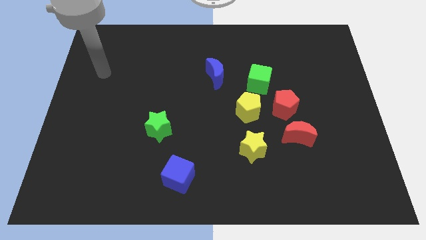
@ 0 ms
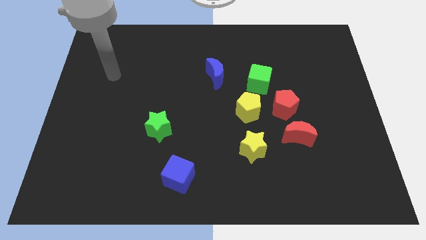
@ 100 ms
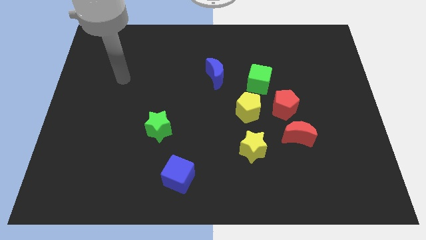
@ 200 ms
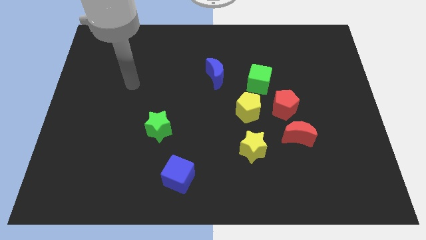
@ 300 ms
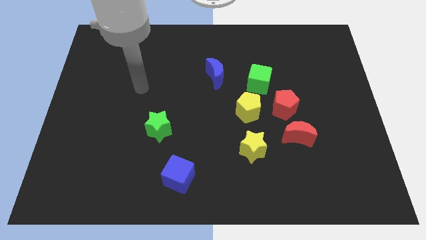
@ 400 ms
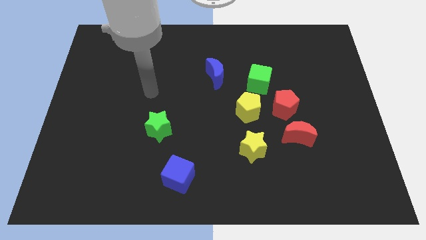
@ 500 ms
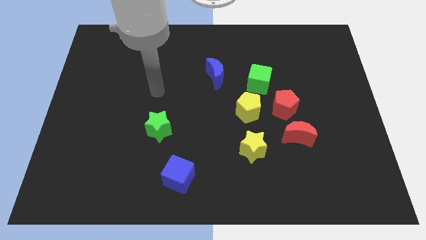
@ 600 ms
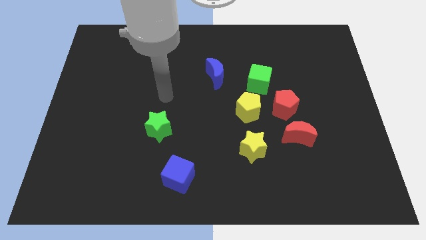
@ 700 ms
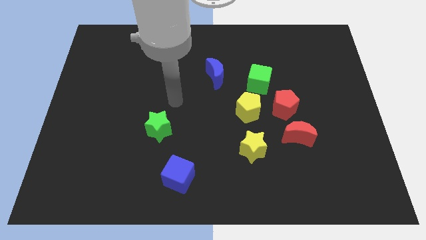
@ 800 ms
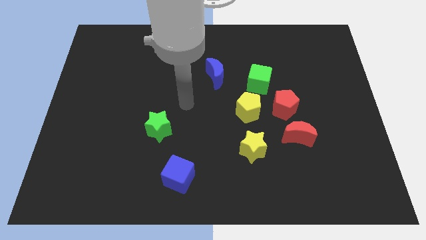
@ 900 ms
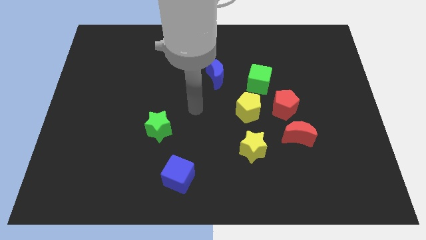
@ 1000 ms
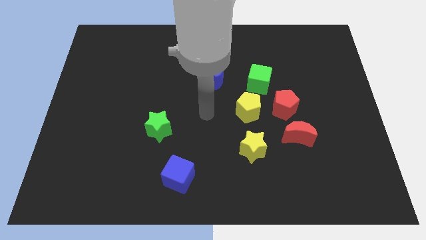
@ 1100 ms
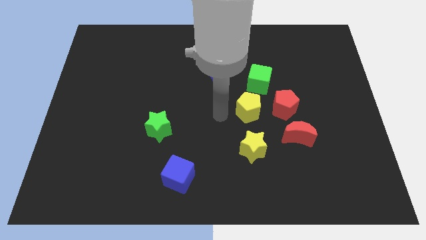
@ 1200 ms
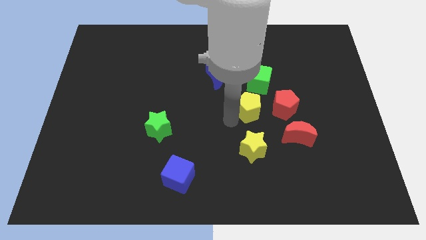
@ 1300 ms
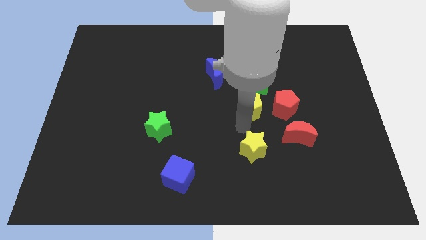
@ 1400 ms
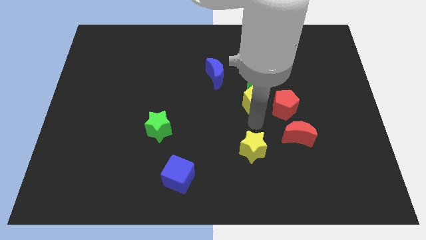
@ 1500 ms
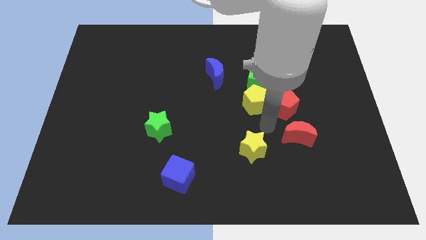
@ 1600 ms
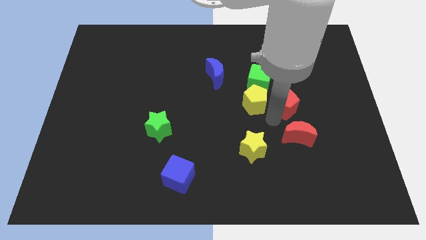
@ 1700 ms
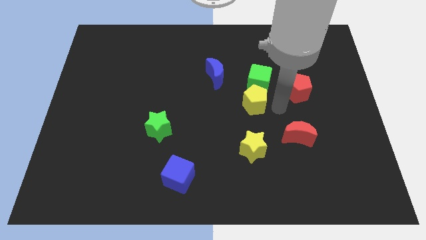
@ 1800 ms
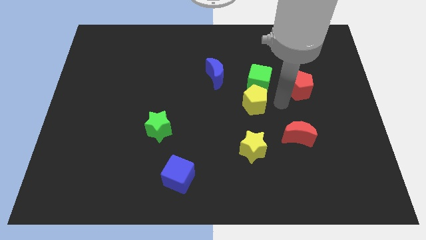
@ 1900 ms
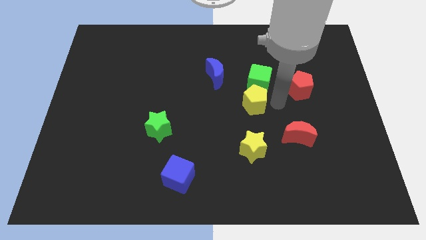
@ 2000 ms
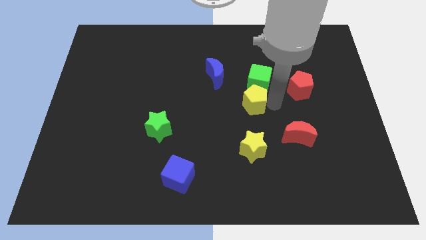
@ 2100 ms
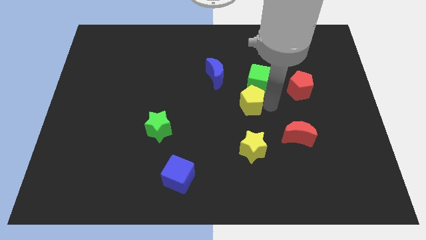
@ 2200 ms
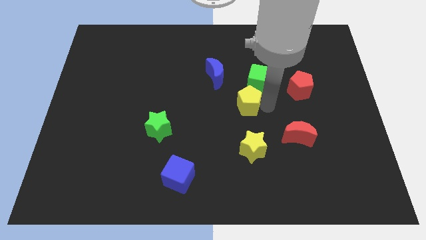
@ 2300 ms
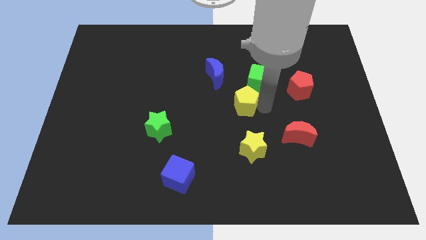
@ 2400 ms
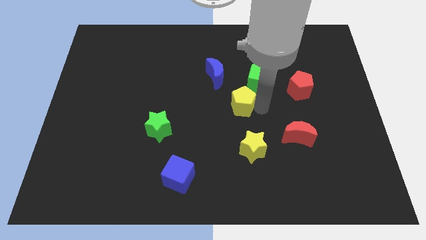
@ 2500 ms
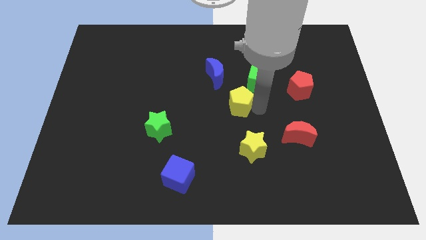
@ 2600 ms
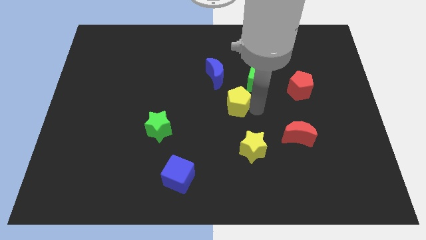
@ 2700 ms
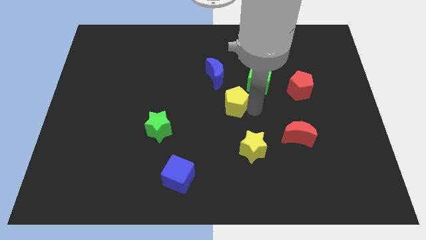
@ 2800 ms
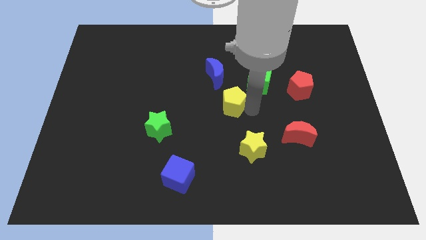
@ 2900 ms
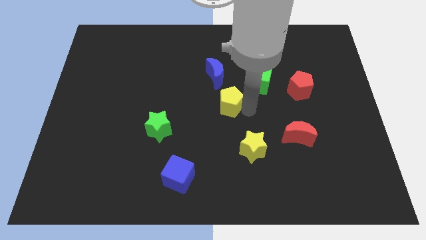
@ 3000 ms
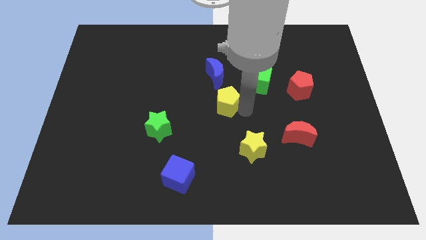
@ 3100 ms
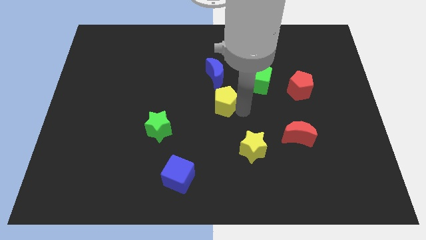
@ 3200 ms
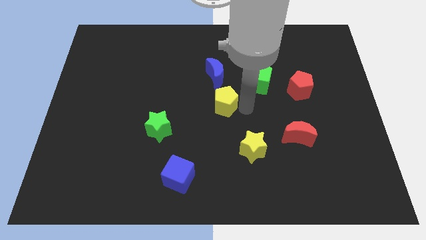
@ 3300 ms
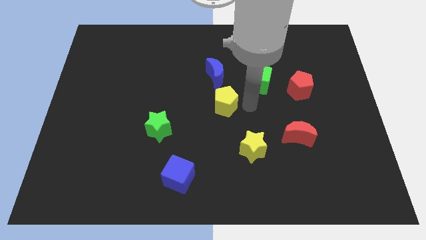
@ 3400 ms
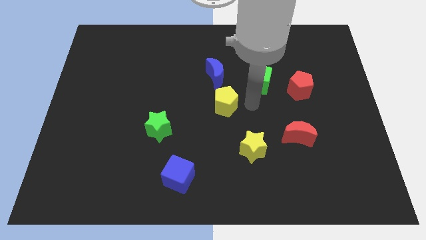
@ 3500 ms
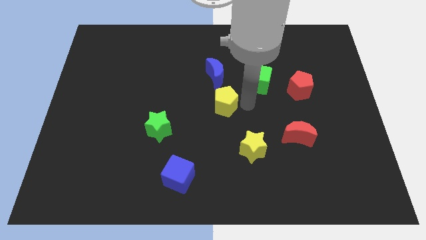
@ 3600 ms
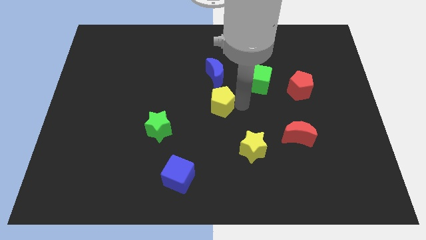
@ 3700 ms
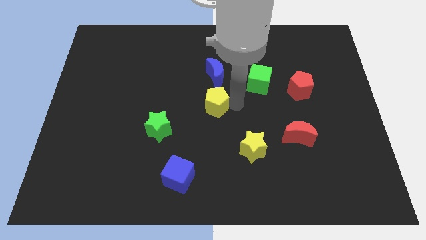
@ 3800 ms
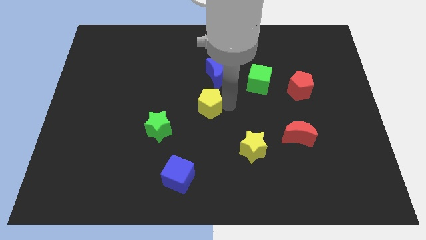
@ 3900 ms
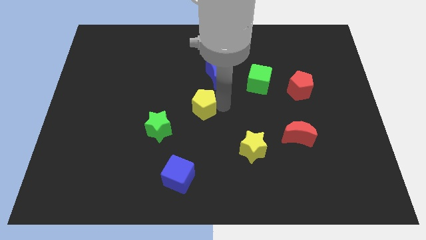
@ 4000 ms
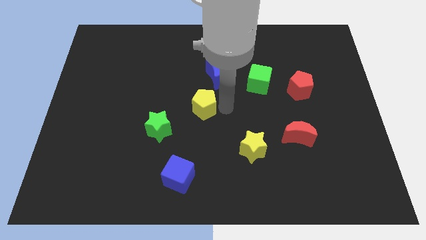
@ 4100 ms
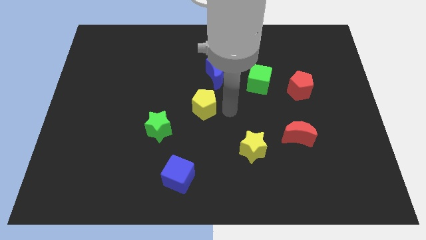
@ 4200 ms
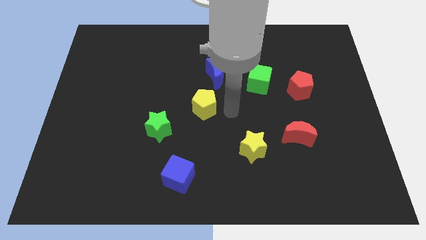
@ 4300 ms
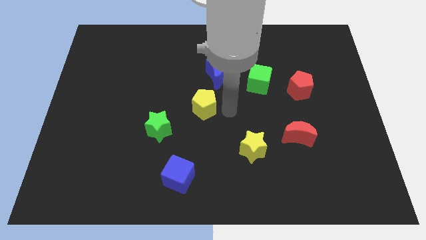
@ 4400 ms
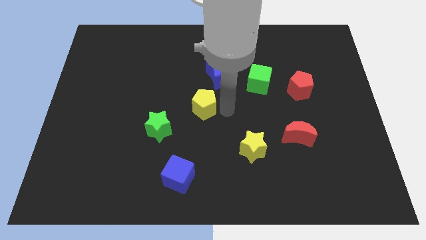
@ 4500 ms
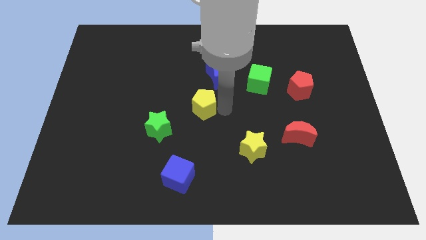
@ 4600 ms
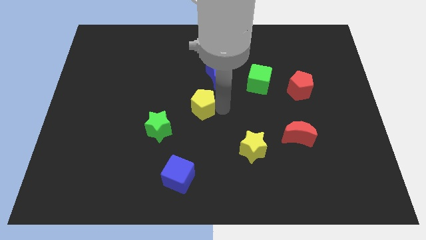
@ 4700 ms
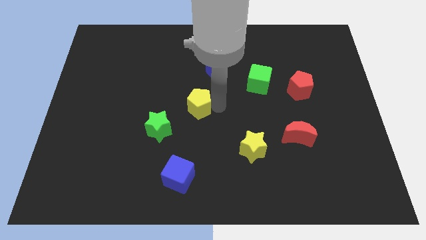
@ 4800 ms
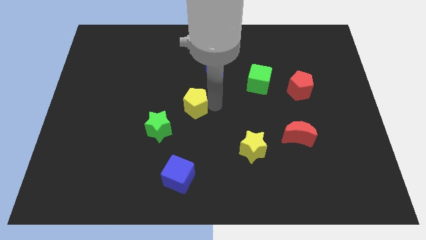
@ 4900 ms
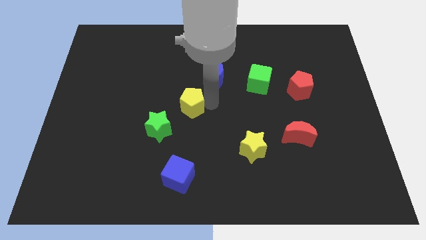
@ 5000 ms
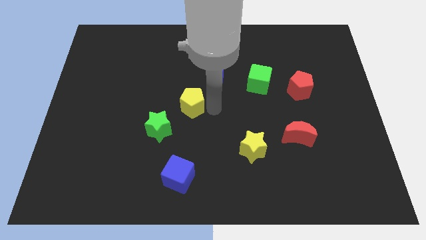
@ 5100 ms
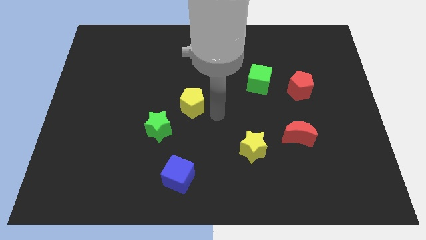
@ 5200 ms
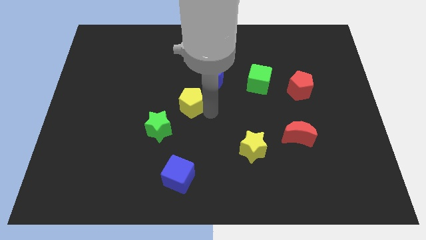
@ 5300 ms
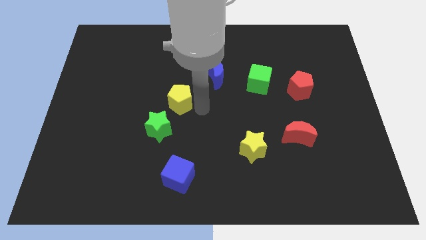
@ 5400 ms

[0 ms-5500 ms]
put the yellow pentagon to the top side of the green star

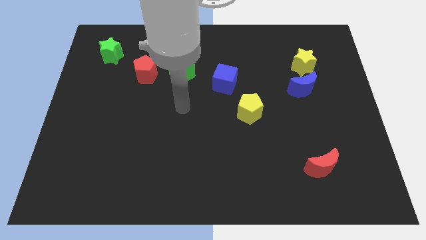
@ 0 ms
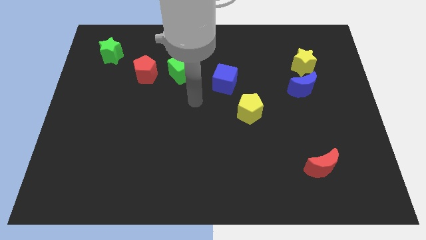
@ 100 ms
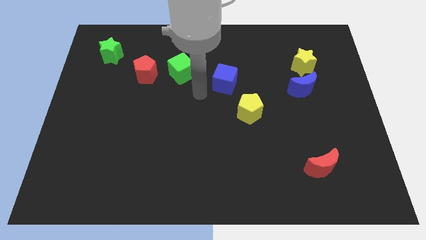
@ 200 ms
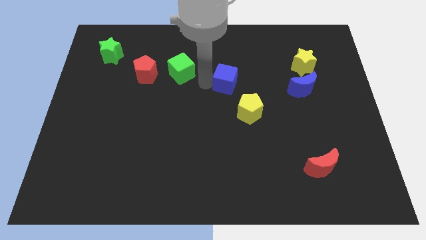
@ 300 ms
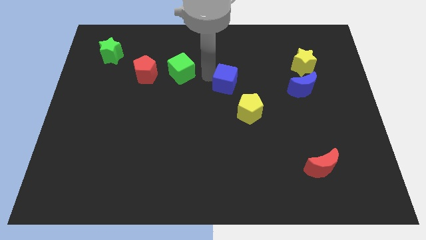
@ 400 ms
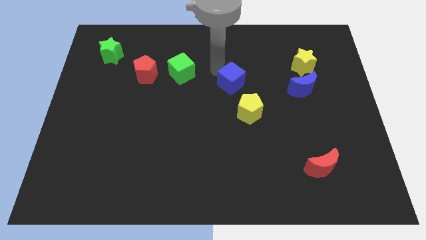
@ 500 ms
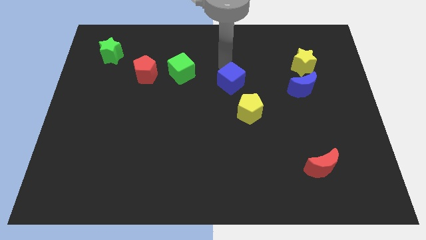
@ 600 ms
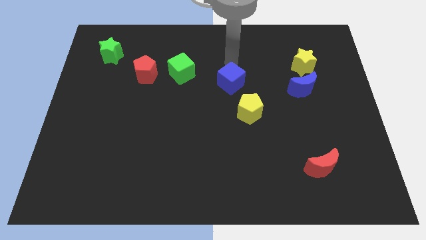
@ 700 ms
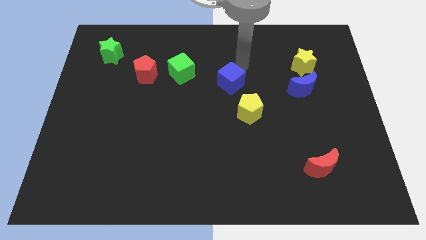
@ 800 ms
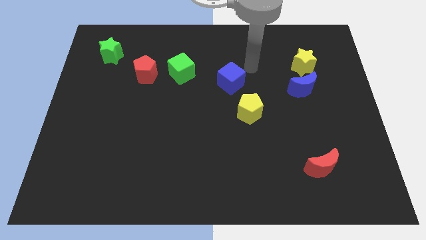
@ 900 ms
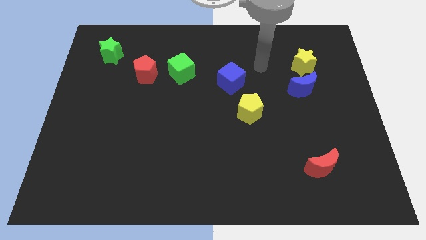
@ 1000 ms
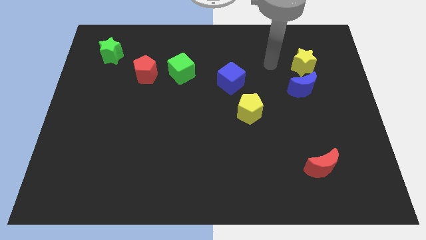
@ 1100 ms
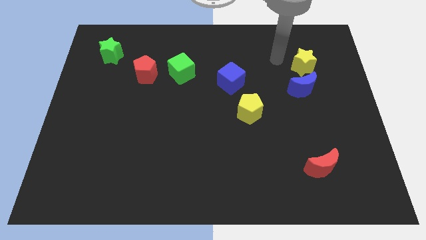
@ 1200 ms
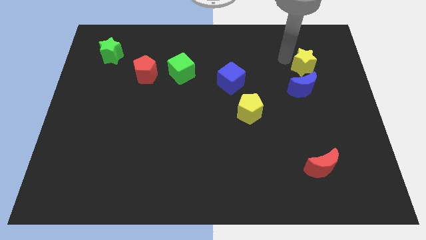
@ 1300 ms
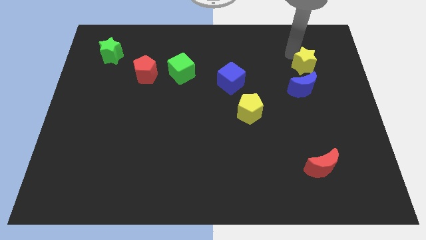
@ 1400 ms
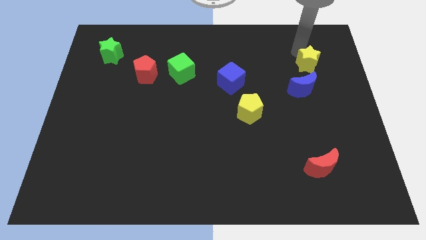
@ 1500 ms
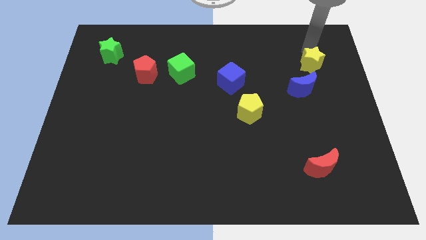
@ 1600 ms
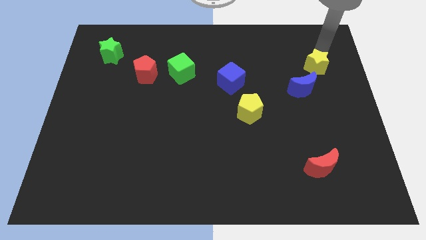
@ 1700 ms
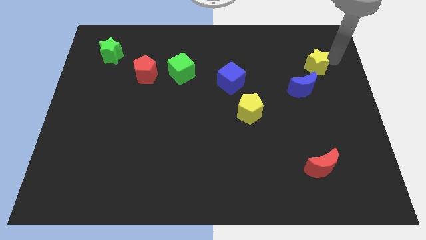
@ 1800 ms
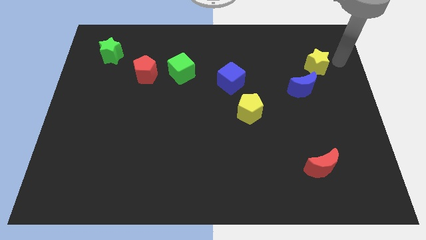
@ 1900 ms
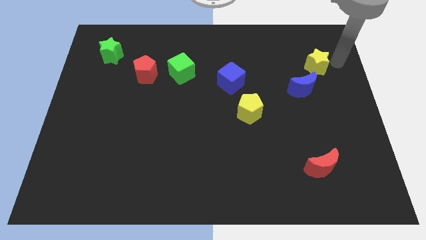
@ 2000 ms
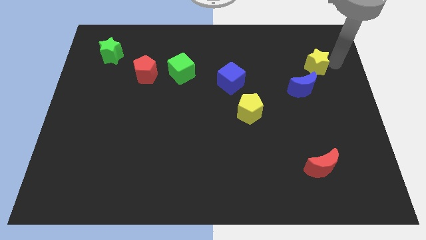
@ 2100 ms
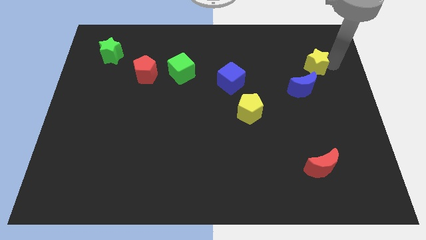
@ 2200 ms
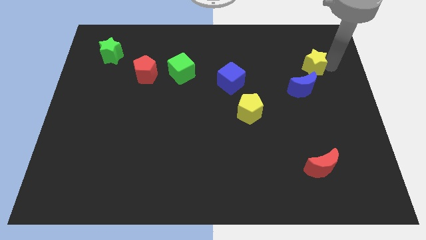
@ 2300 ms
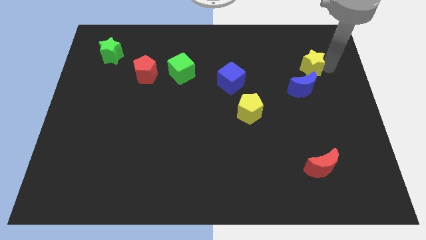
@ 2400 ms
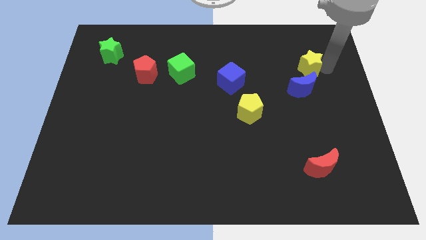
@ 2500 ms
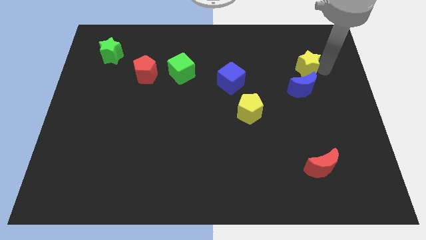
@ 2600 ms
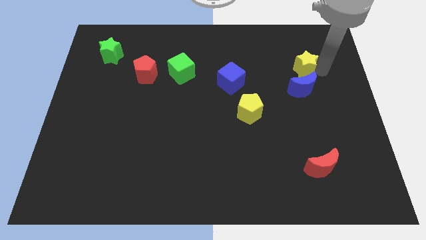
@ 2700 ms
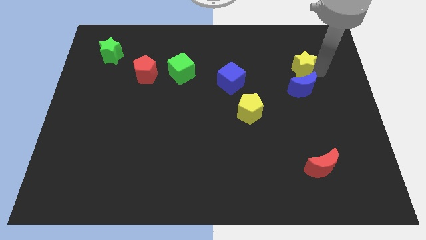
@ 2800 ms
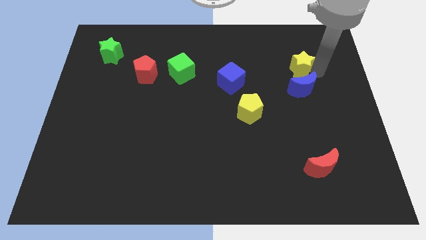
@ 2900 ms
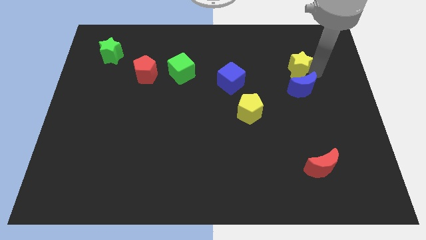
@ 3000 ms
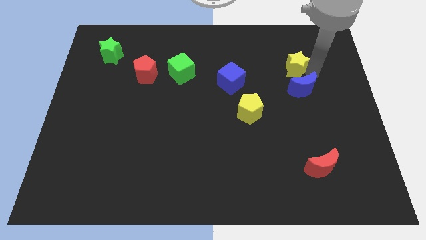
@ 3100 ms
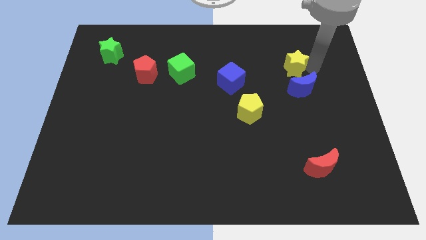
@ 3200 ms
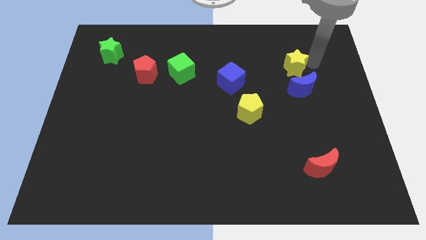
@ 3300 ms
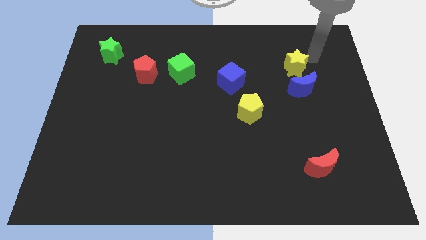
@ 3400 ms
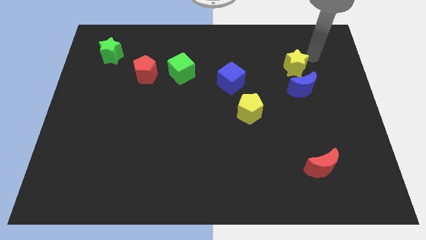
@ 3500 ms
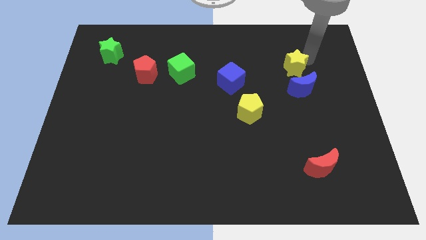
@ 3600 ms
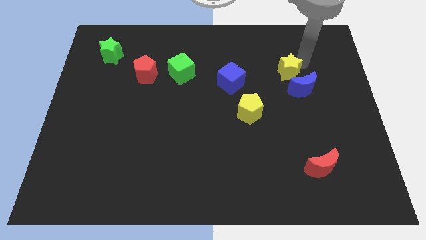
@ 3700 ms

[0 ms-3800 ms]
put the yellow star to the right of the blue cube
